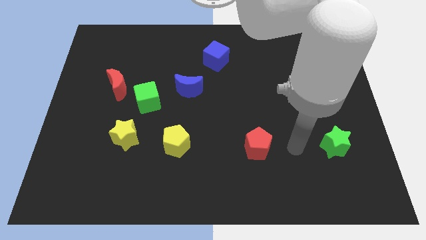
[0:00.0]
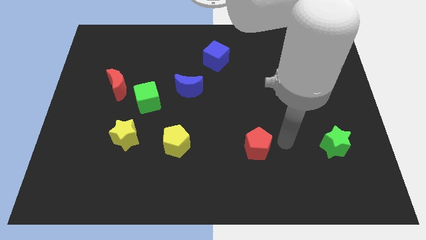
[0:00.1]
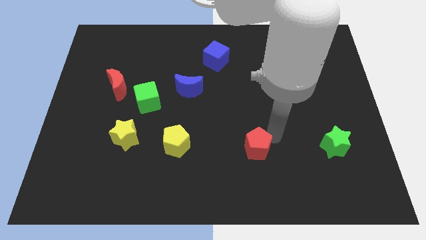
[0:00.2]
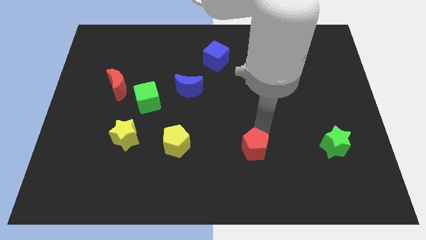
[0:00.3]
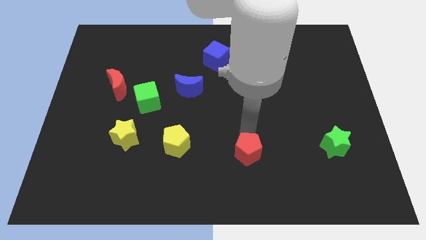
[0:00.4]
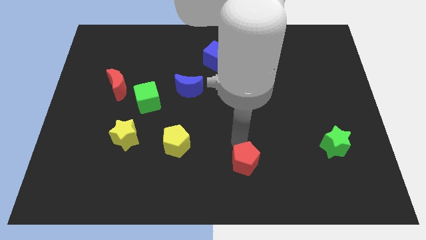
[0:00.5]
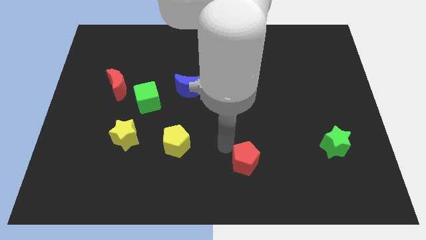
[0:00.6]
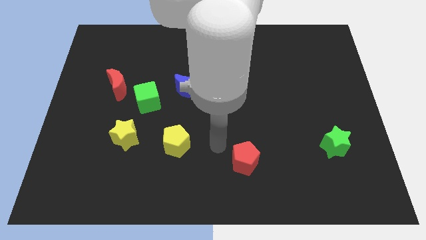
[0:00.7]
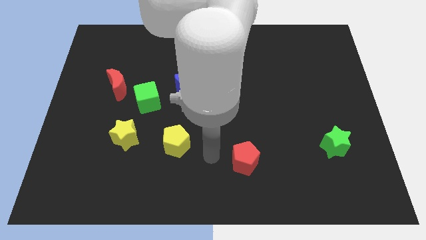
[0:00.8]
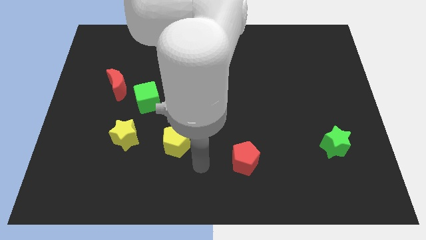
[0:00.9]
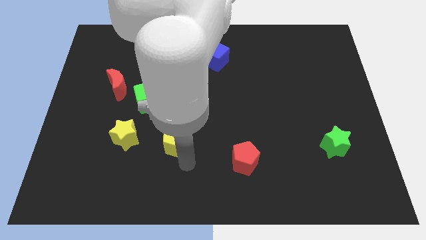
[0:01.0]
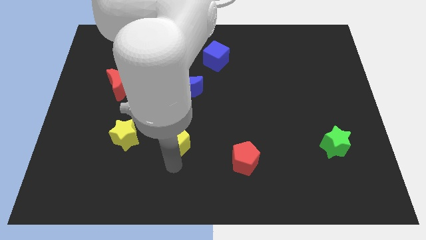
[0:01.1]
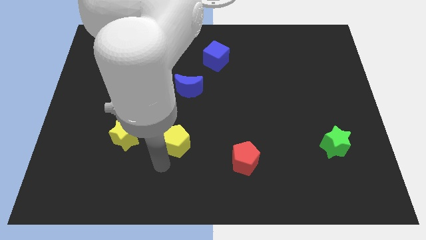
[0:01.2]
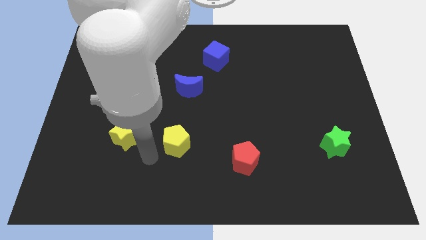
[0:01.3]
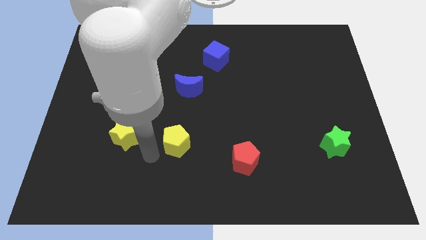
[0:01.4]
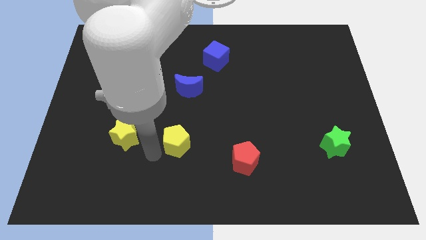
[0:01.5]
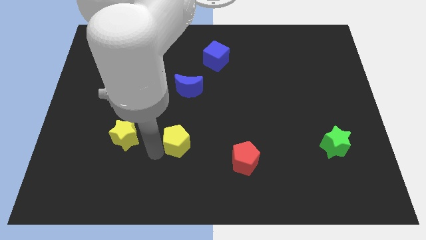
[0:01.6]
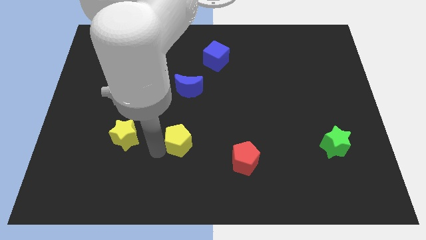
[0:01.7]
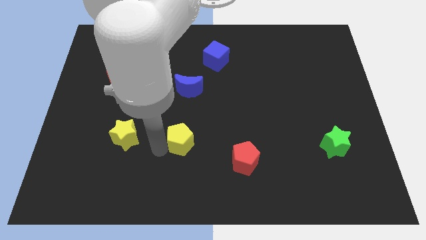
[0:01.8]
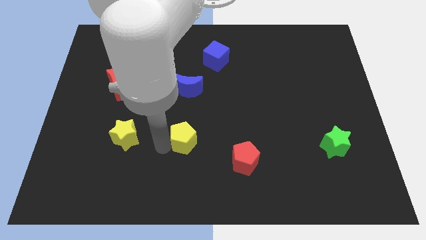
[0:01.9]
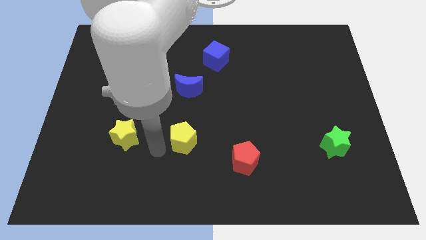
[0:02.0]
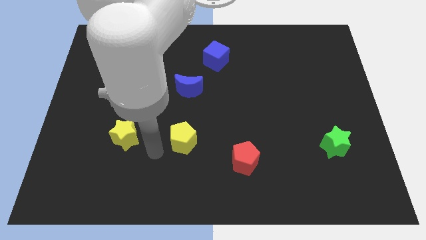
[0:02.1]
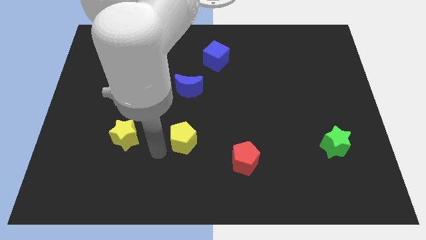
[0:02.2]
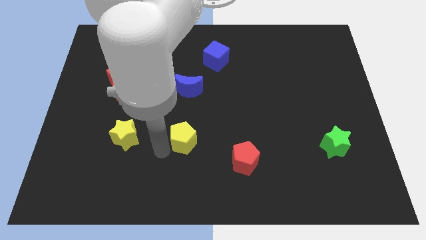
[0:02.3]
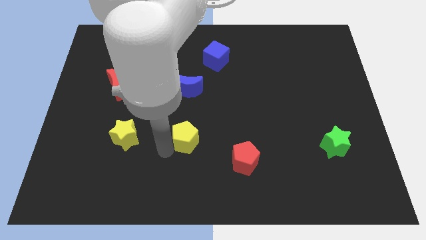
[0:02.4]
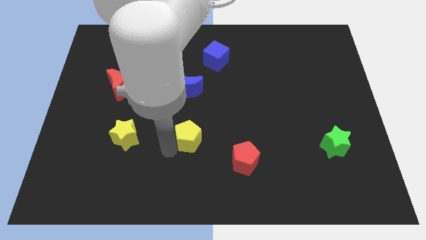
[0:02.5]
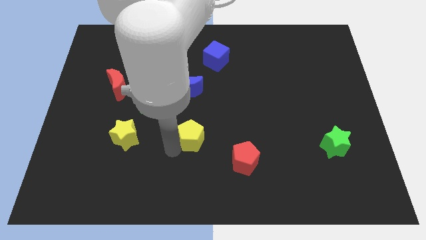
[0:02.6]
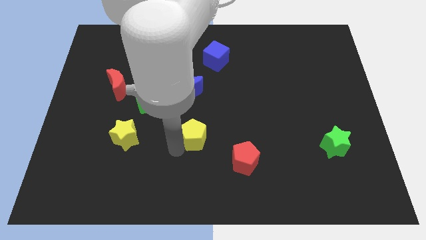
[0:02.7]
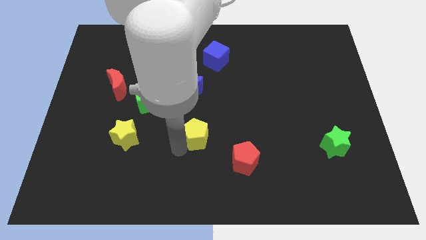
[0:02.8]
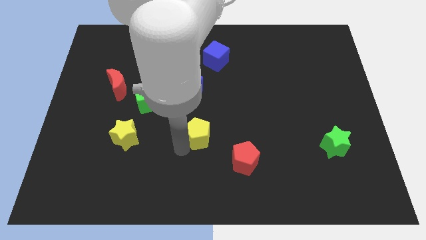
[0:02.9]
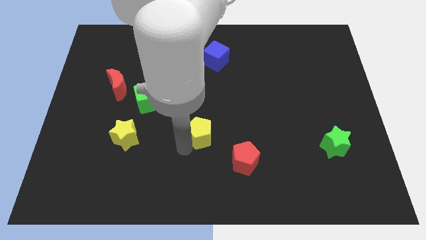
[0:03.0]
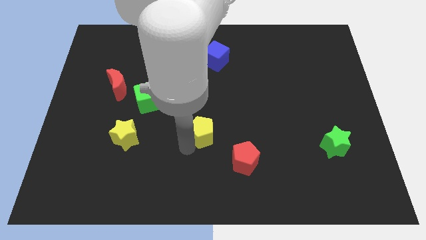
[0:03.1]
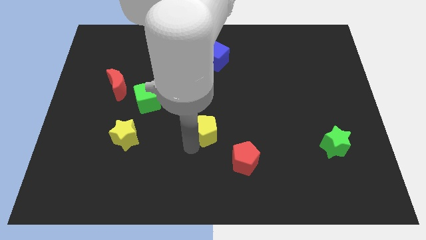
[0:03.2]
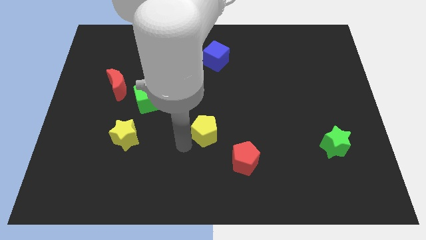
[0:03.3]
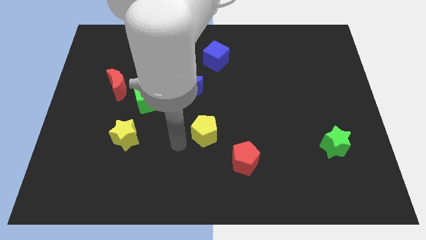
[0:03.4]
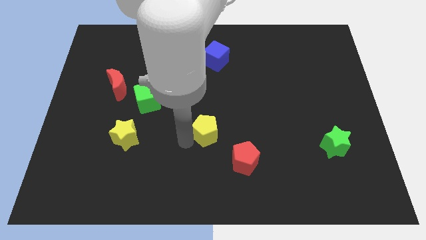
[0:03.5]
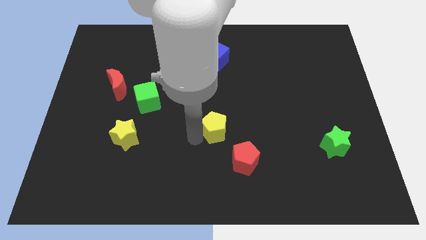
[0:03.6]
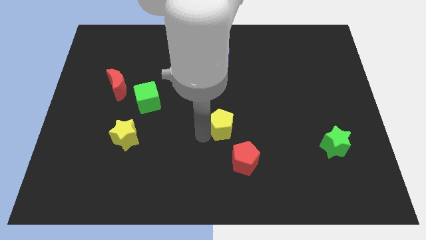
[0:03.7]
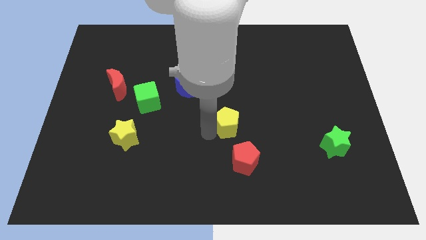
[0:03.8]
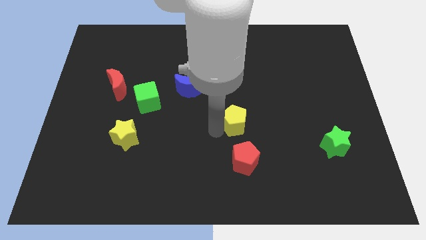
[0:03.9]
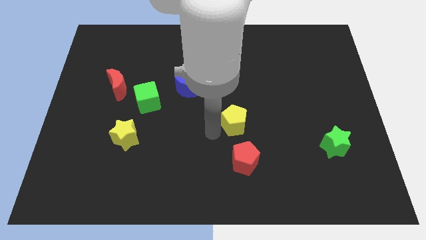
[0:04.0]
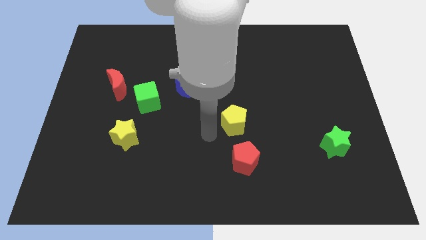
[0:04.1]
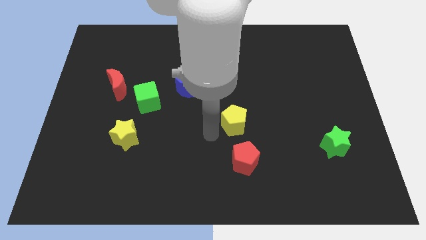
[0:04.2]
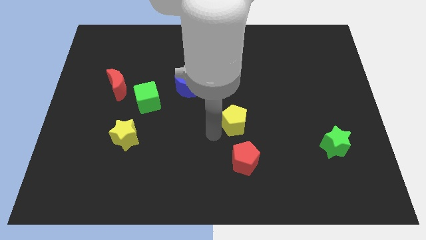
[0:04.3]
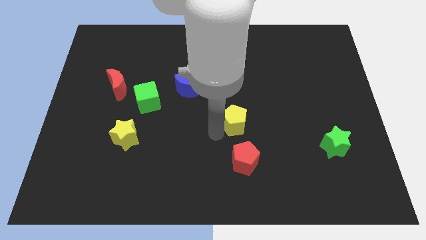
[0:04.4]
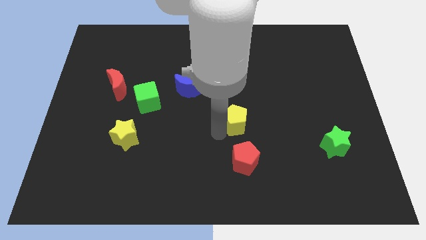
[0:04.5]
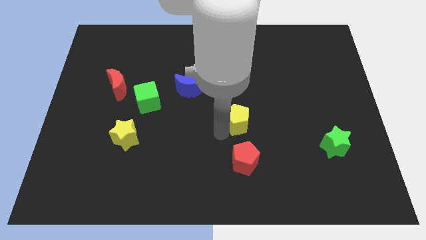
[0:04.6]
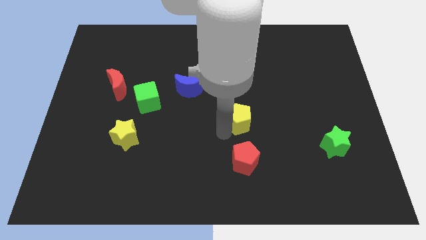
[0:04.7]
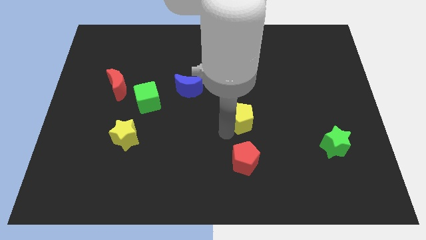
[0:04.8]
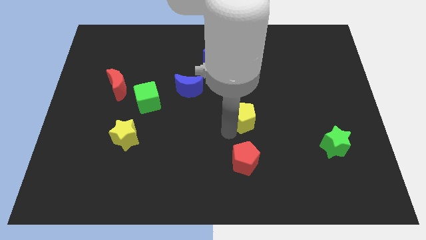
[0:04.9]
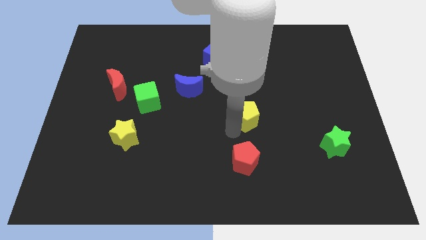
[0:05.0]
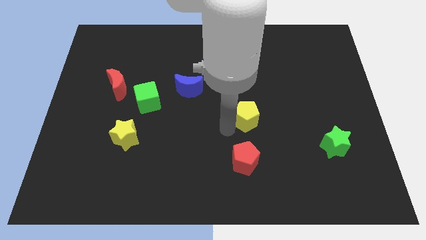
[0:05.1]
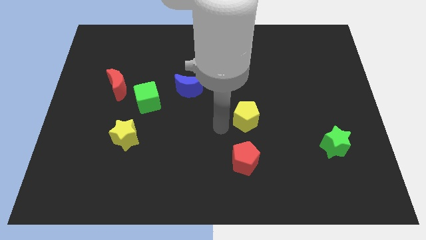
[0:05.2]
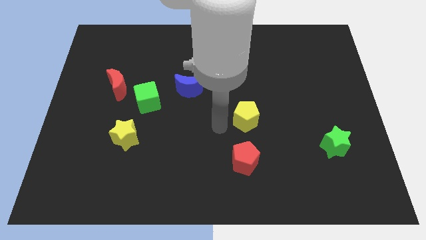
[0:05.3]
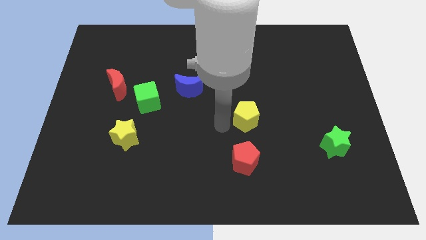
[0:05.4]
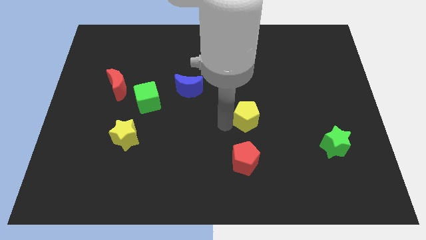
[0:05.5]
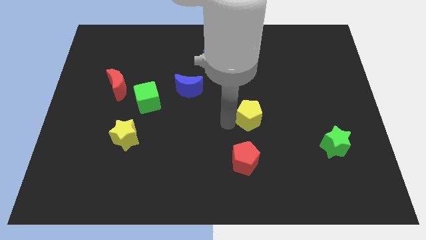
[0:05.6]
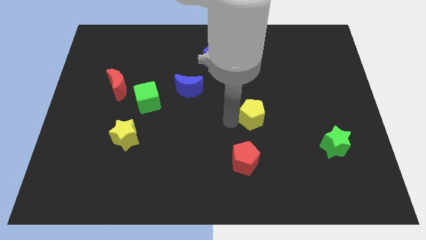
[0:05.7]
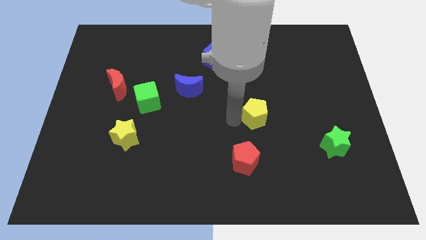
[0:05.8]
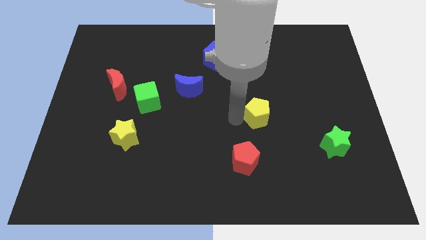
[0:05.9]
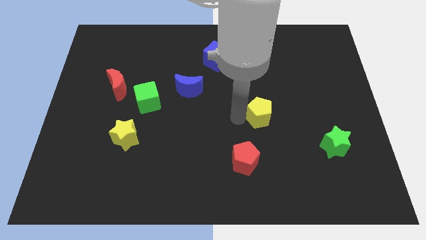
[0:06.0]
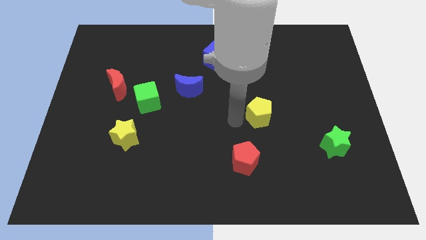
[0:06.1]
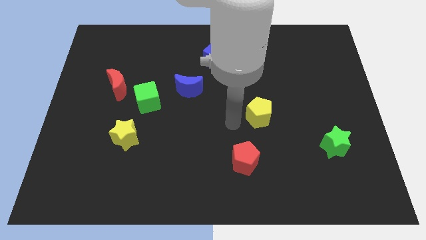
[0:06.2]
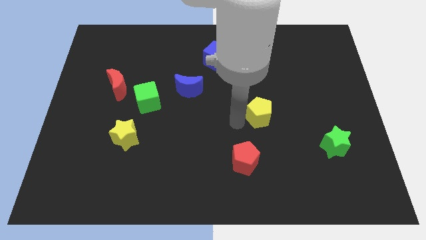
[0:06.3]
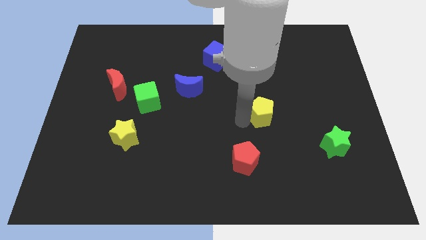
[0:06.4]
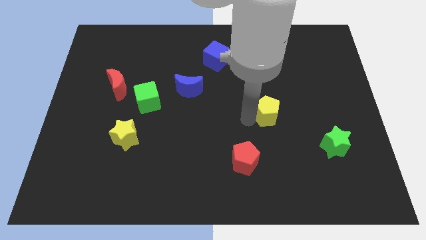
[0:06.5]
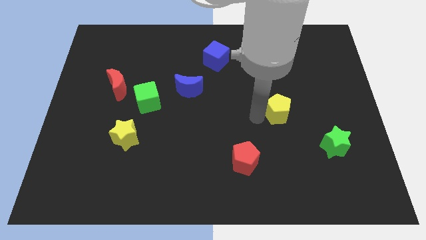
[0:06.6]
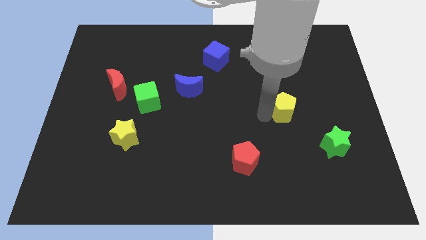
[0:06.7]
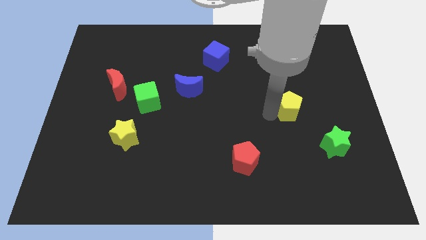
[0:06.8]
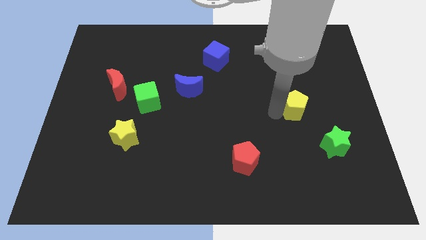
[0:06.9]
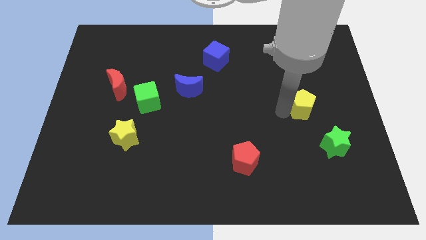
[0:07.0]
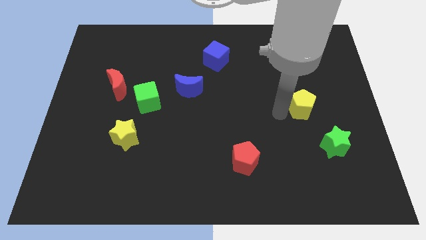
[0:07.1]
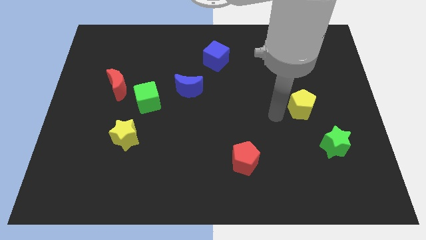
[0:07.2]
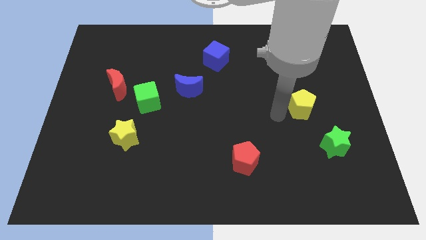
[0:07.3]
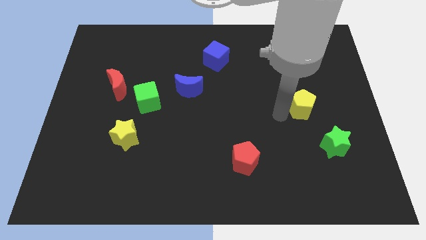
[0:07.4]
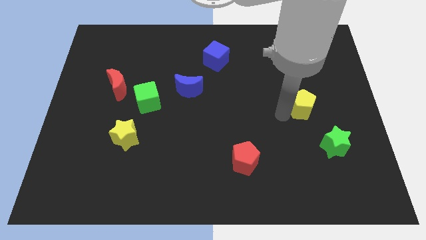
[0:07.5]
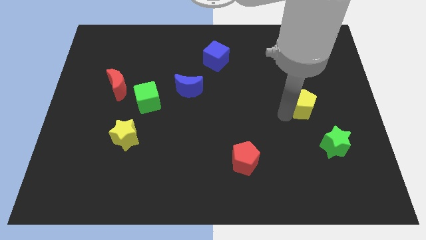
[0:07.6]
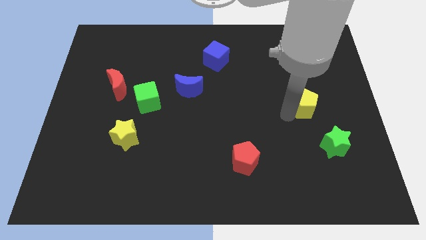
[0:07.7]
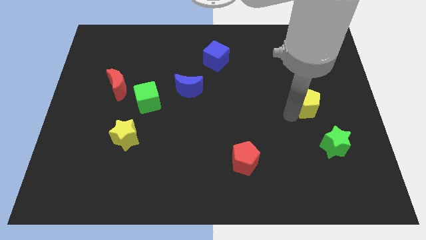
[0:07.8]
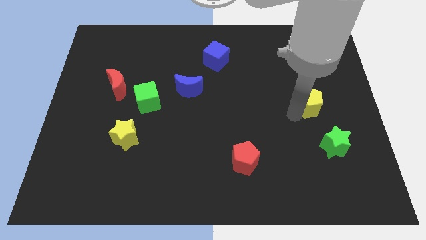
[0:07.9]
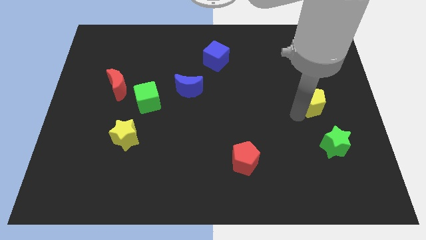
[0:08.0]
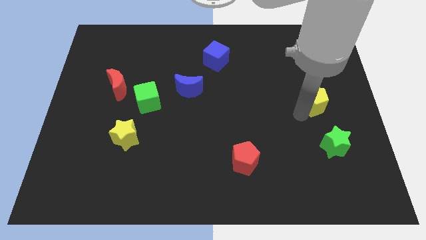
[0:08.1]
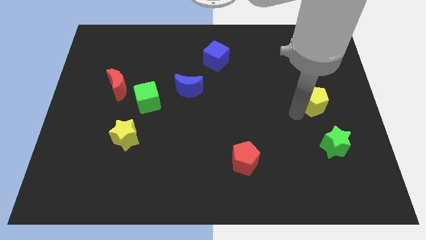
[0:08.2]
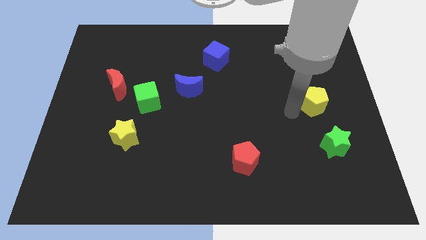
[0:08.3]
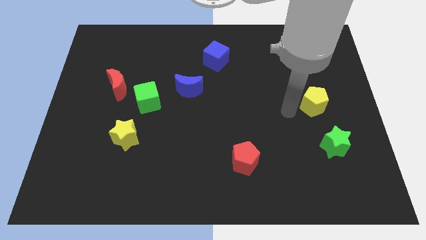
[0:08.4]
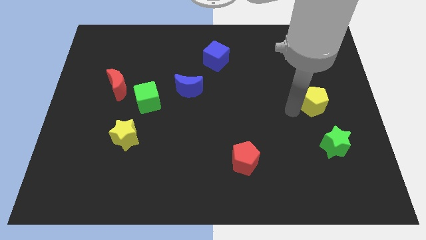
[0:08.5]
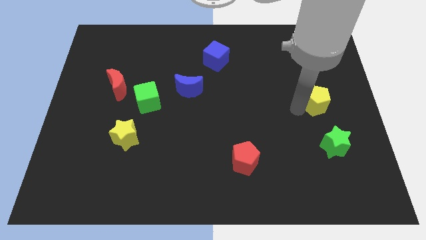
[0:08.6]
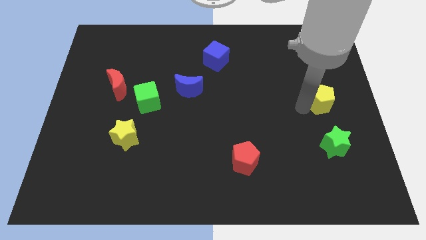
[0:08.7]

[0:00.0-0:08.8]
move the yellow pentagon to the center right
